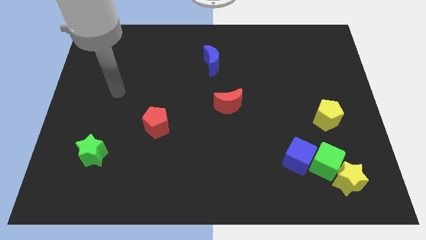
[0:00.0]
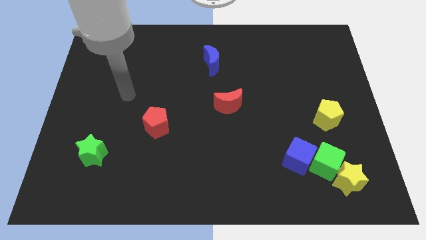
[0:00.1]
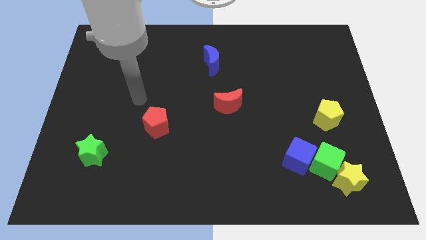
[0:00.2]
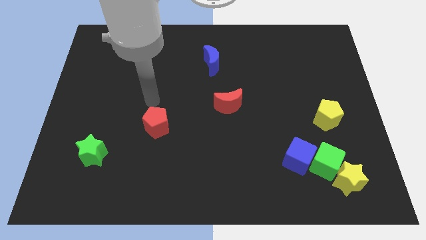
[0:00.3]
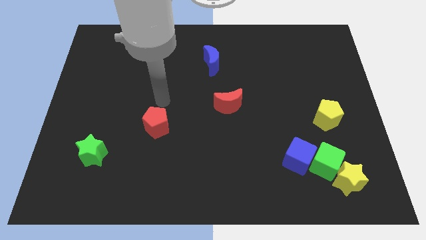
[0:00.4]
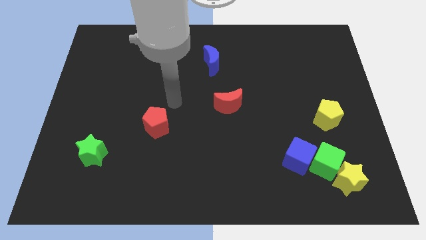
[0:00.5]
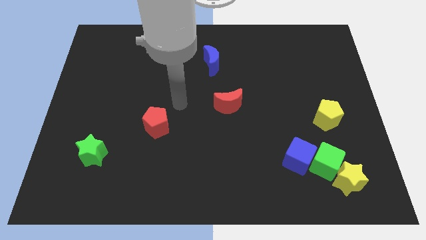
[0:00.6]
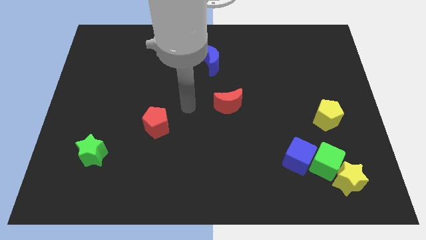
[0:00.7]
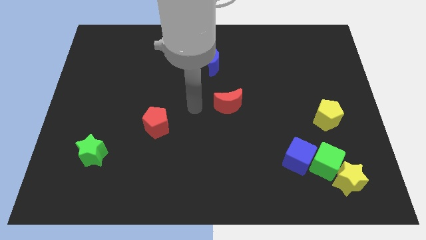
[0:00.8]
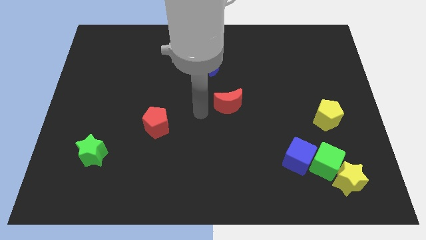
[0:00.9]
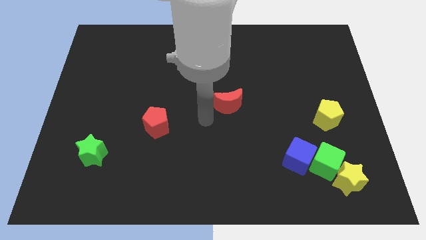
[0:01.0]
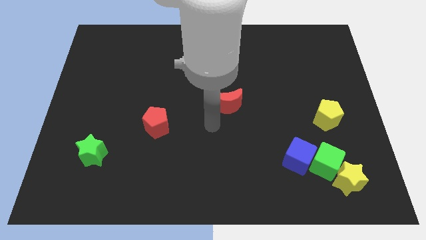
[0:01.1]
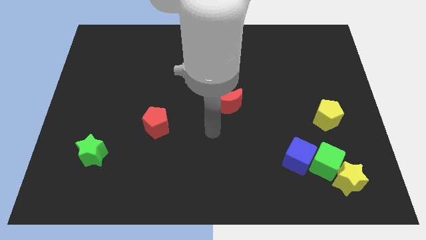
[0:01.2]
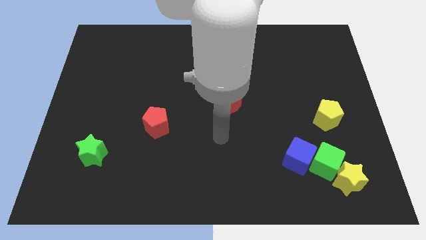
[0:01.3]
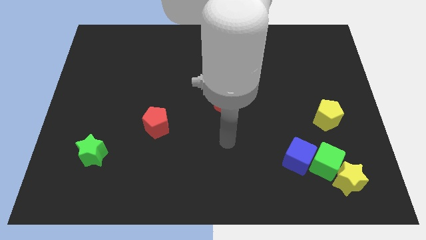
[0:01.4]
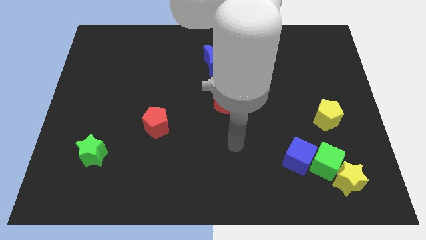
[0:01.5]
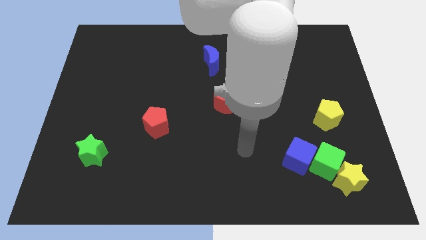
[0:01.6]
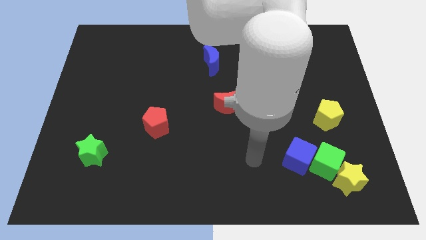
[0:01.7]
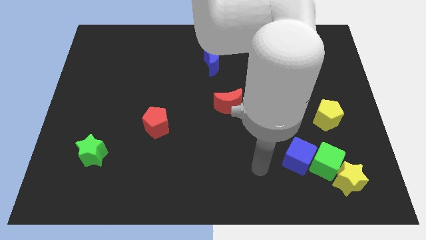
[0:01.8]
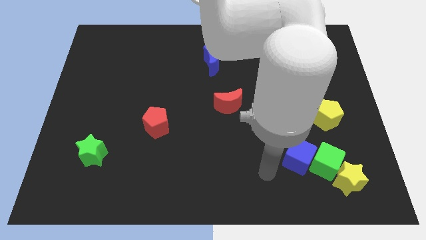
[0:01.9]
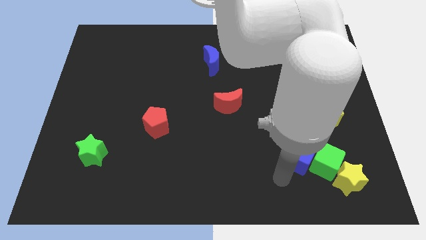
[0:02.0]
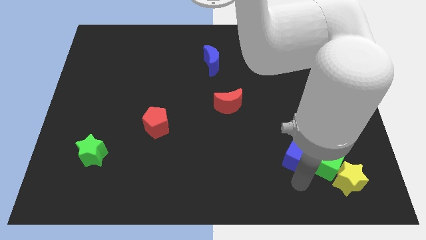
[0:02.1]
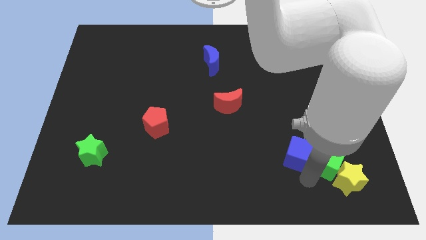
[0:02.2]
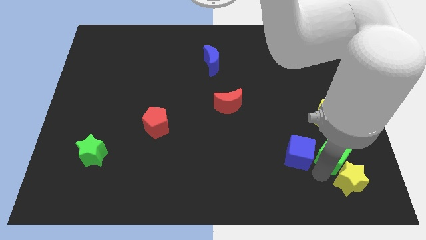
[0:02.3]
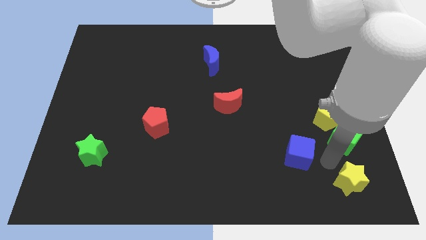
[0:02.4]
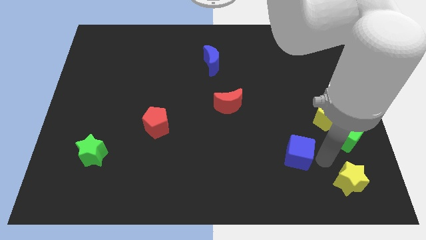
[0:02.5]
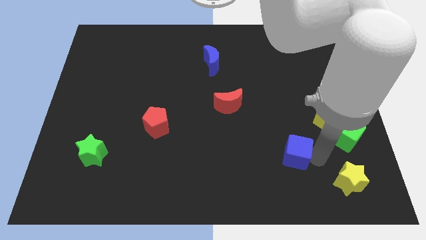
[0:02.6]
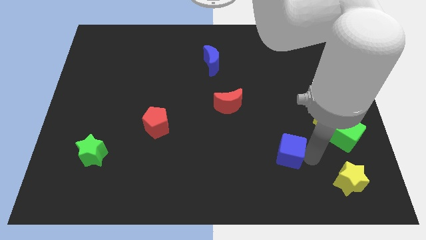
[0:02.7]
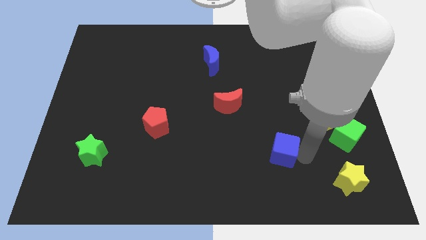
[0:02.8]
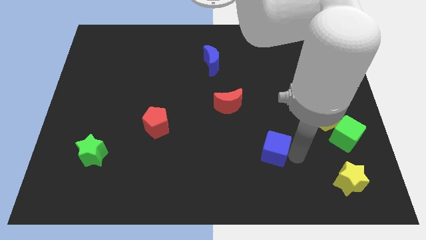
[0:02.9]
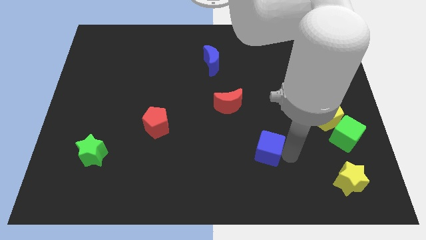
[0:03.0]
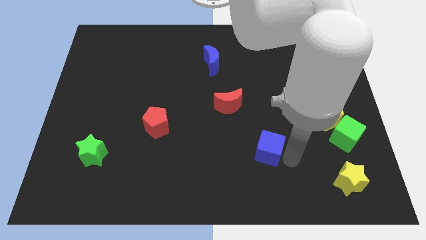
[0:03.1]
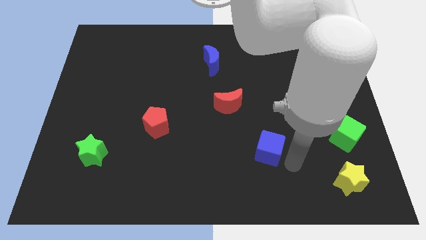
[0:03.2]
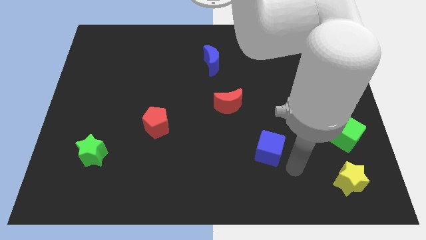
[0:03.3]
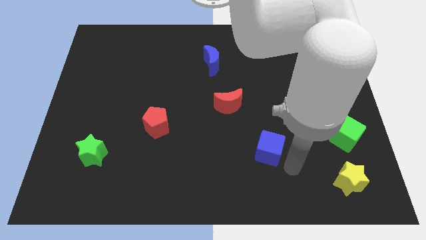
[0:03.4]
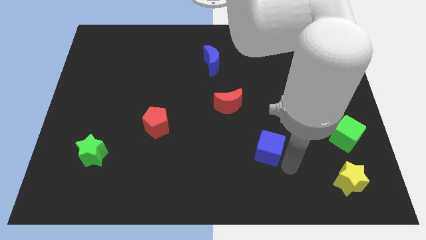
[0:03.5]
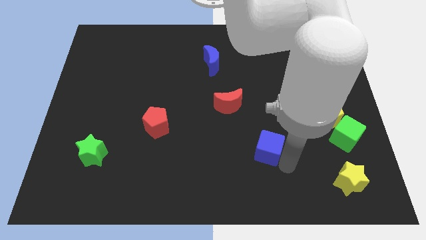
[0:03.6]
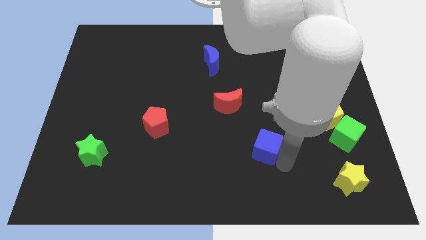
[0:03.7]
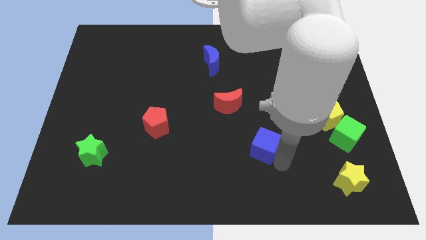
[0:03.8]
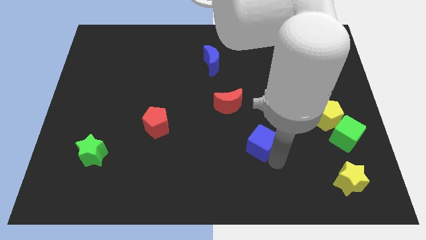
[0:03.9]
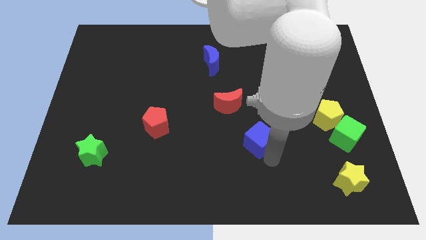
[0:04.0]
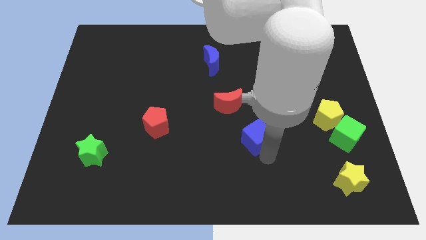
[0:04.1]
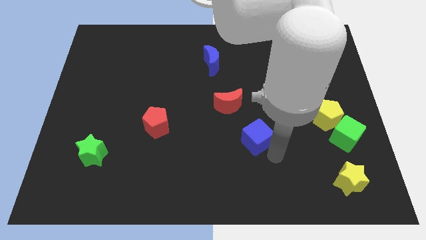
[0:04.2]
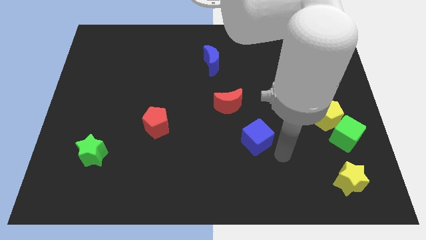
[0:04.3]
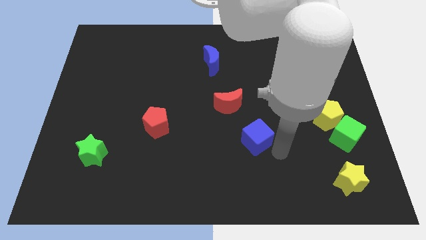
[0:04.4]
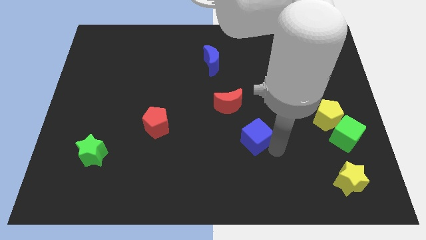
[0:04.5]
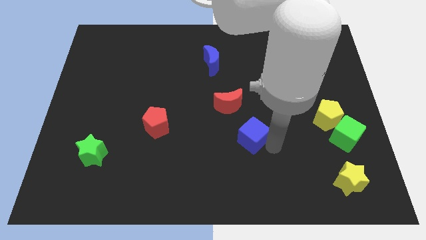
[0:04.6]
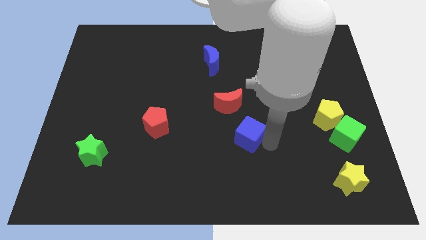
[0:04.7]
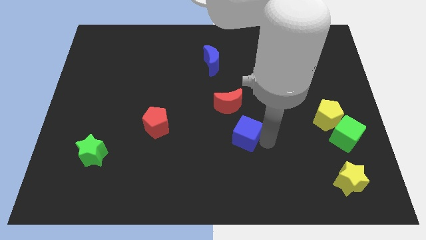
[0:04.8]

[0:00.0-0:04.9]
slide the blue cube to the center of the board

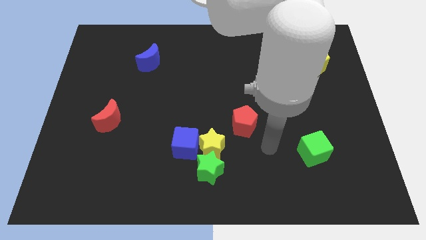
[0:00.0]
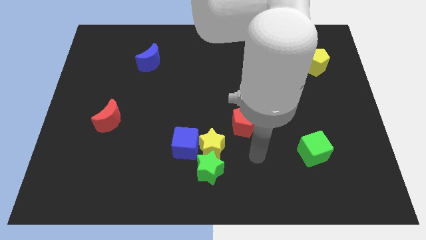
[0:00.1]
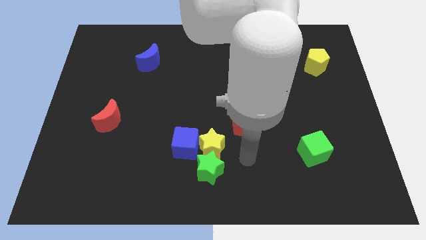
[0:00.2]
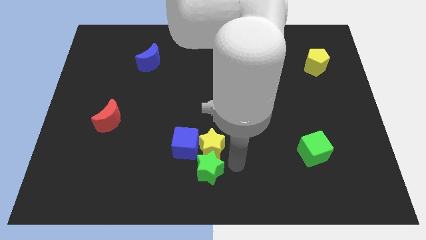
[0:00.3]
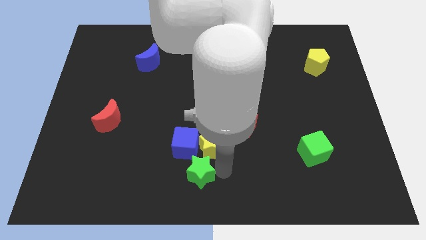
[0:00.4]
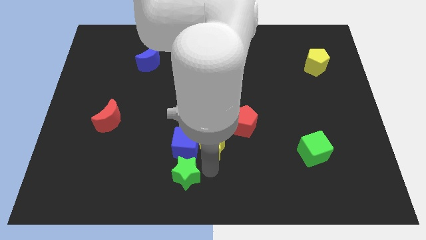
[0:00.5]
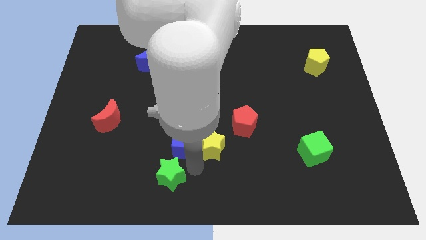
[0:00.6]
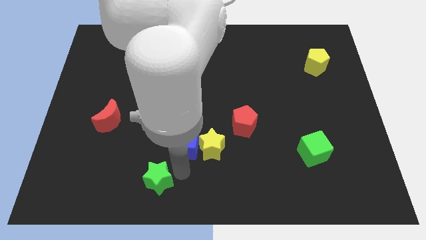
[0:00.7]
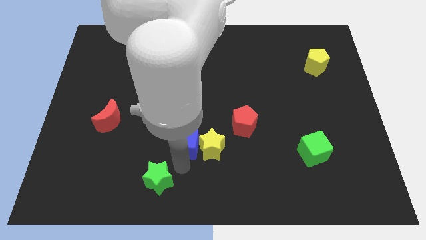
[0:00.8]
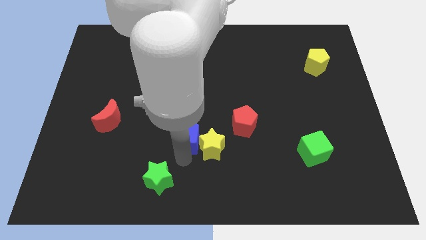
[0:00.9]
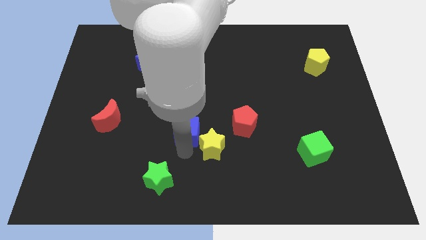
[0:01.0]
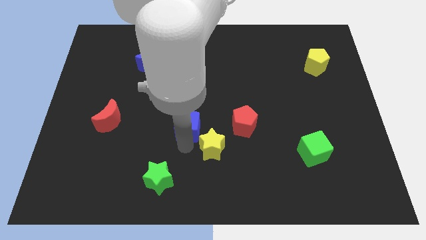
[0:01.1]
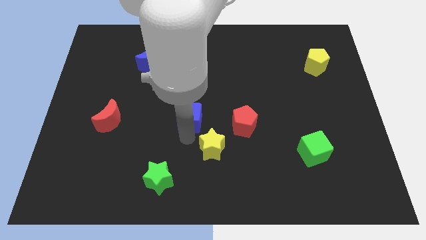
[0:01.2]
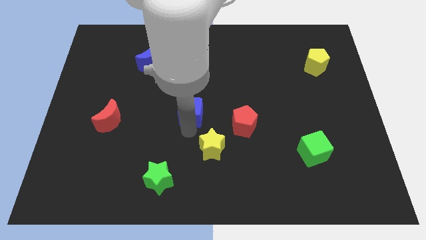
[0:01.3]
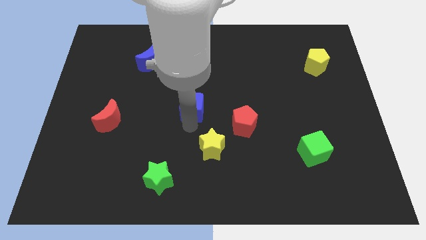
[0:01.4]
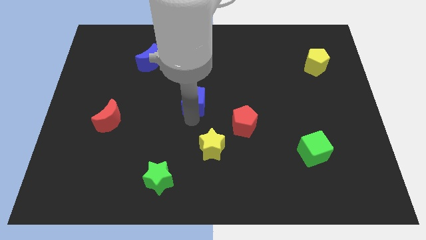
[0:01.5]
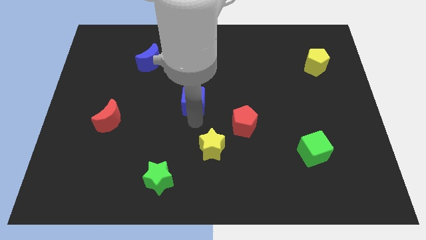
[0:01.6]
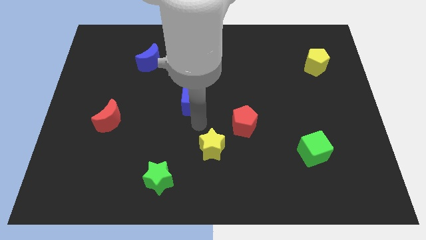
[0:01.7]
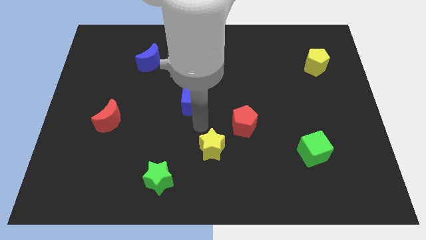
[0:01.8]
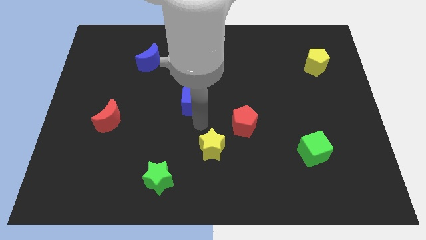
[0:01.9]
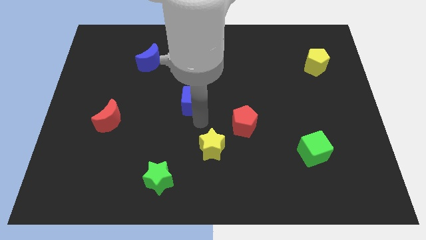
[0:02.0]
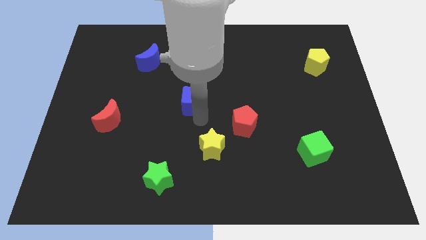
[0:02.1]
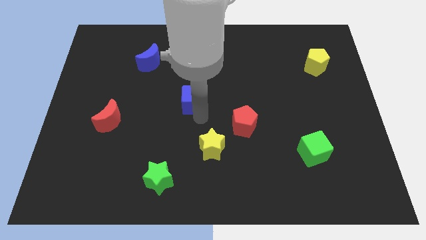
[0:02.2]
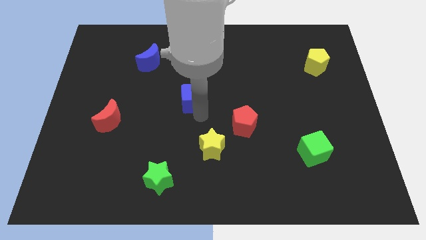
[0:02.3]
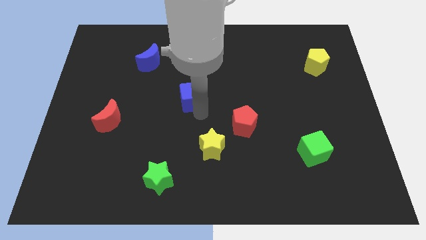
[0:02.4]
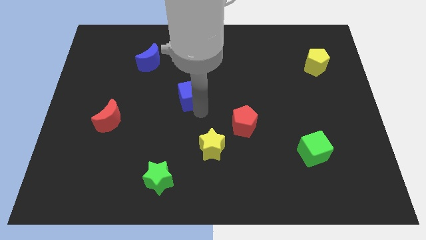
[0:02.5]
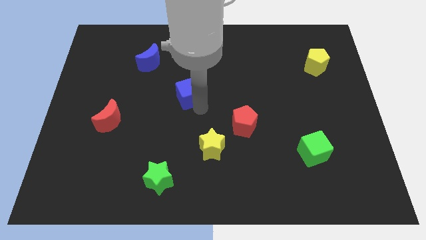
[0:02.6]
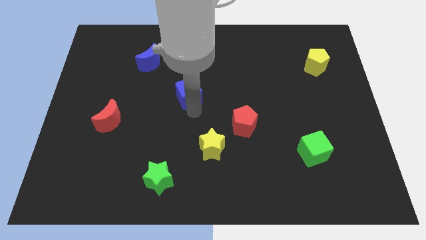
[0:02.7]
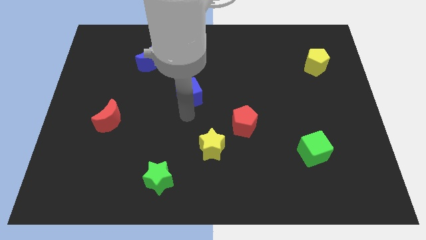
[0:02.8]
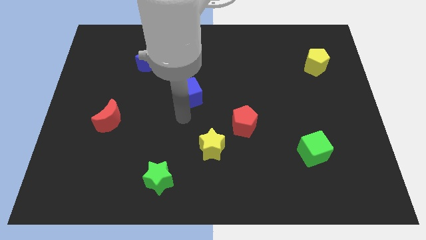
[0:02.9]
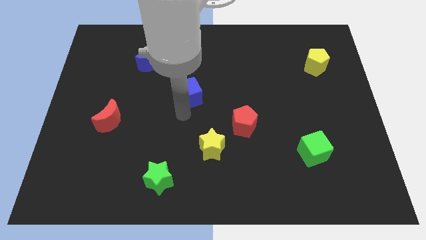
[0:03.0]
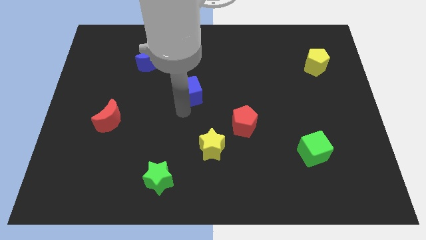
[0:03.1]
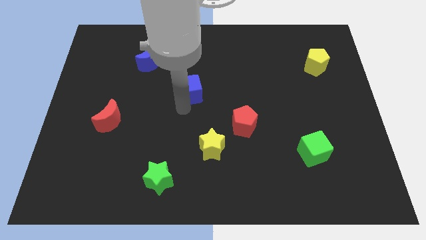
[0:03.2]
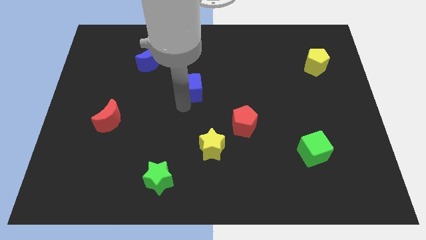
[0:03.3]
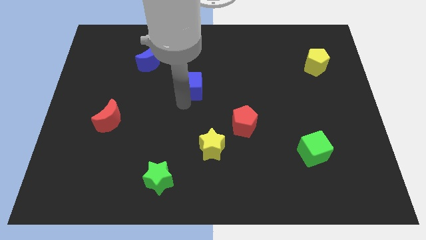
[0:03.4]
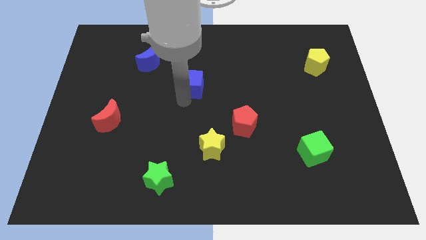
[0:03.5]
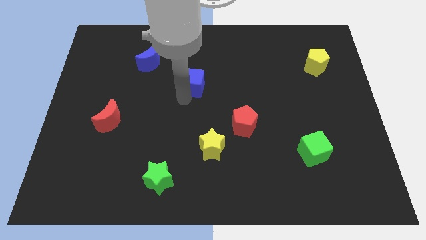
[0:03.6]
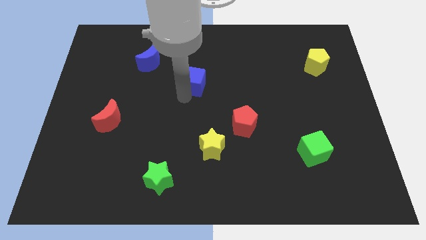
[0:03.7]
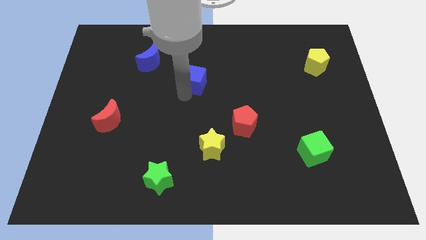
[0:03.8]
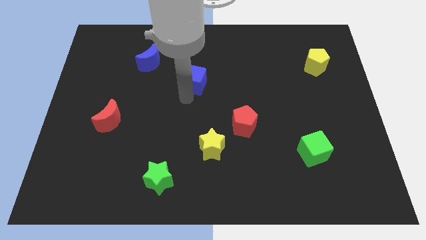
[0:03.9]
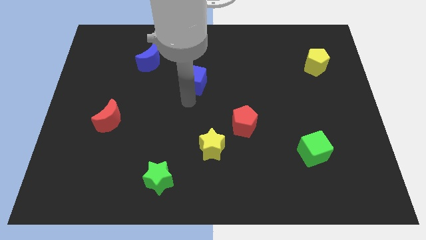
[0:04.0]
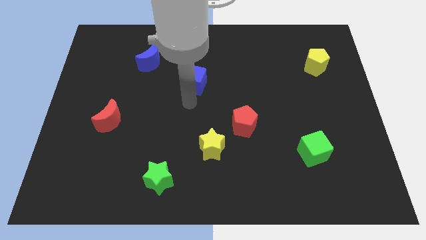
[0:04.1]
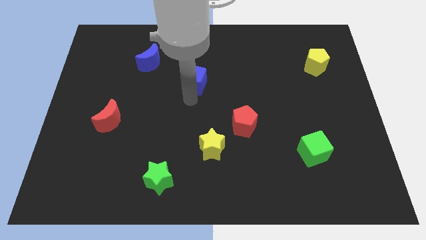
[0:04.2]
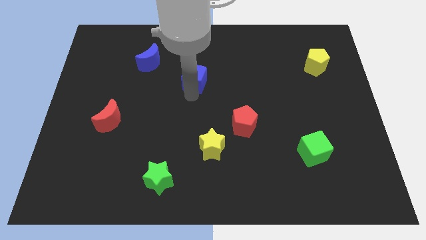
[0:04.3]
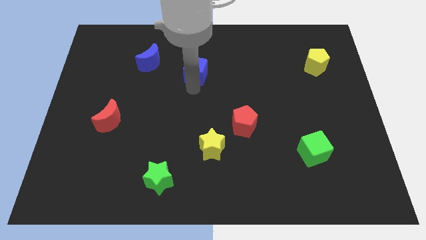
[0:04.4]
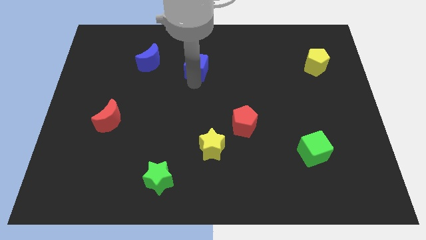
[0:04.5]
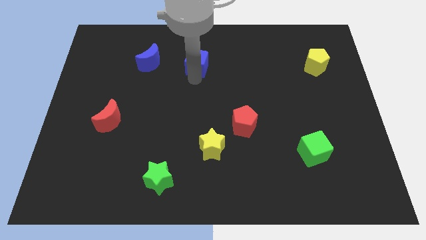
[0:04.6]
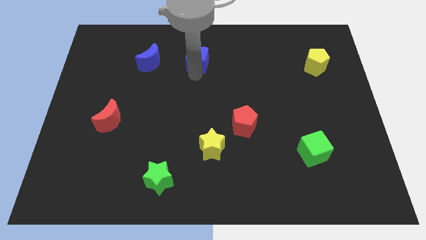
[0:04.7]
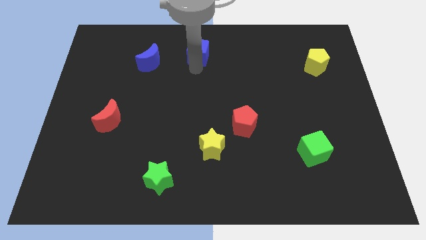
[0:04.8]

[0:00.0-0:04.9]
push the blue cube to the top side
